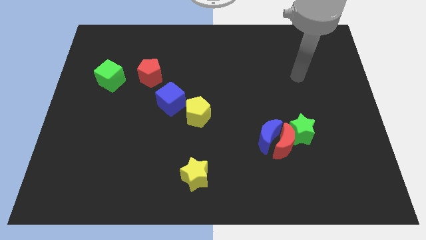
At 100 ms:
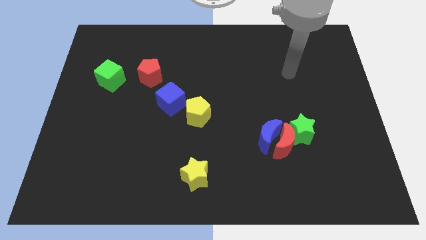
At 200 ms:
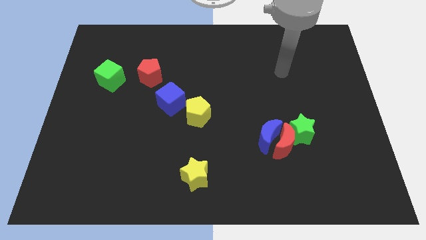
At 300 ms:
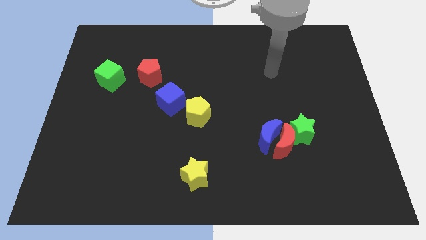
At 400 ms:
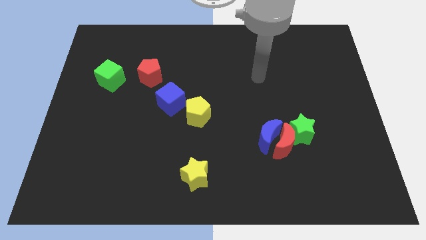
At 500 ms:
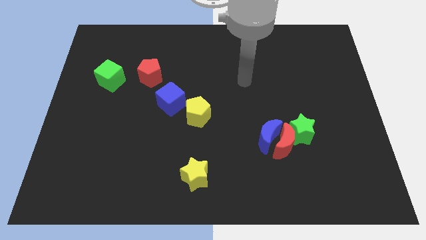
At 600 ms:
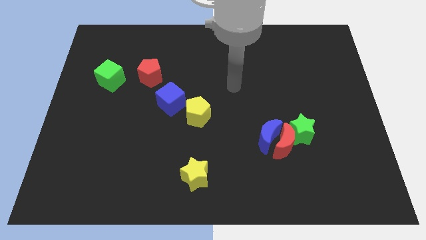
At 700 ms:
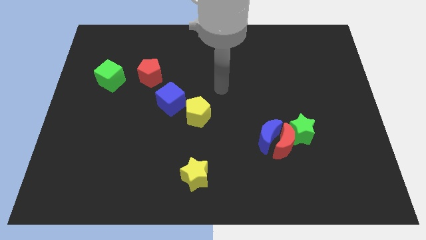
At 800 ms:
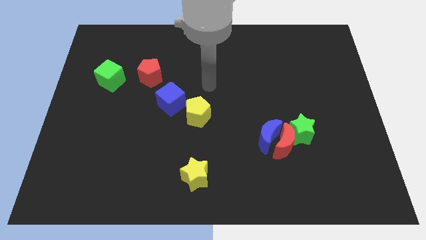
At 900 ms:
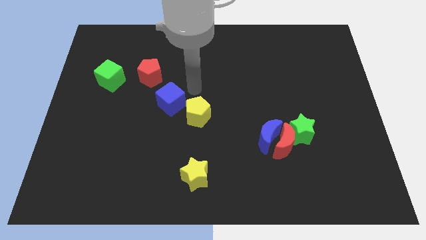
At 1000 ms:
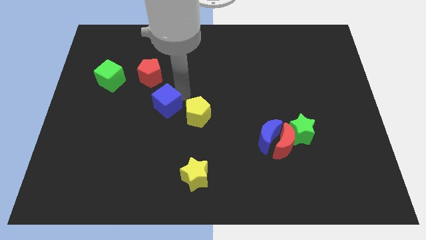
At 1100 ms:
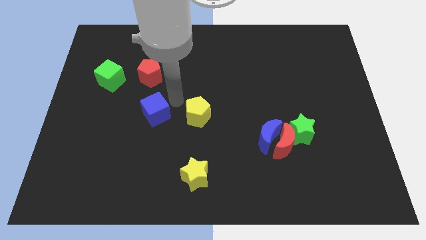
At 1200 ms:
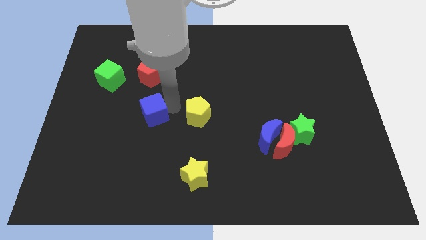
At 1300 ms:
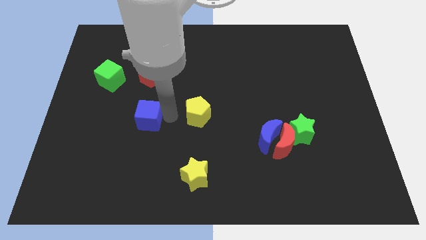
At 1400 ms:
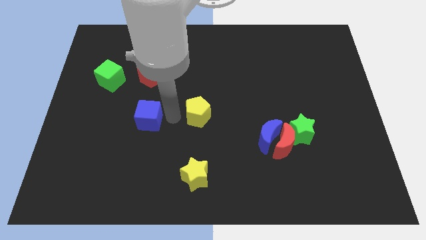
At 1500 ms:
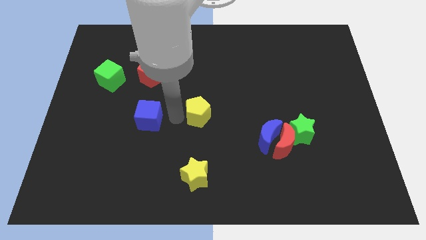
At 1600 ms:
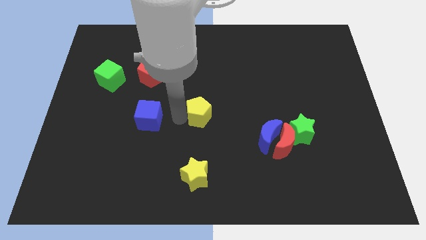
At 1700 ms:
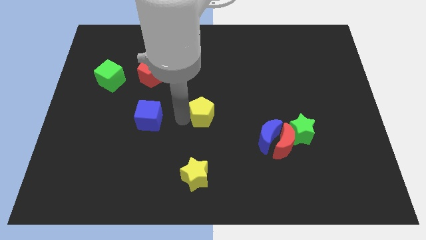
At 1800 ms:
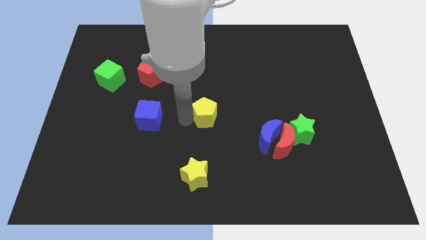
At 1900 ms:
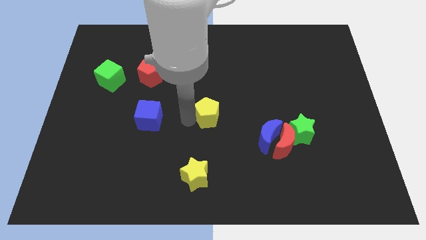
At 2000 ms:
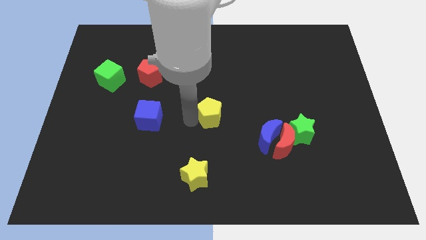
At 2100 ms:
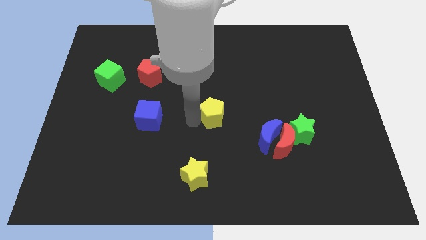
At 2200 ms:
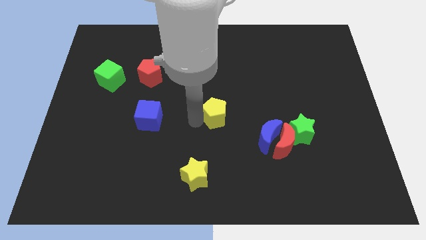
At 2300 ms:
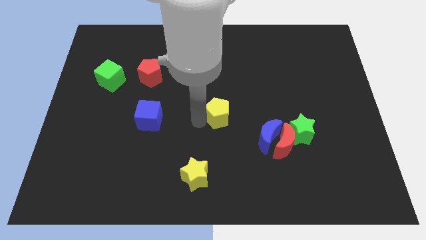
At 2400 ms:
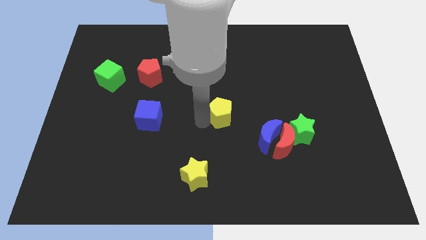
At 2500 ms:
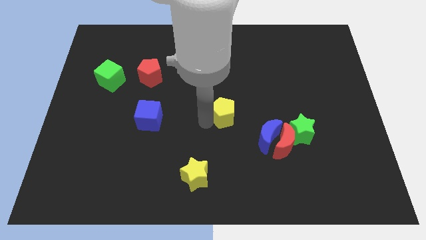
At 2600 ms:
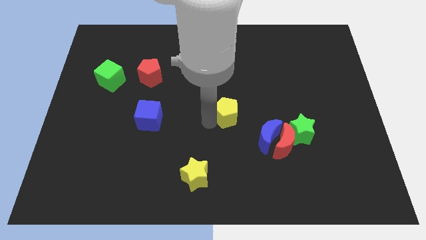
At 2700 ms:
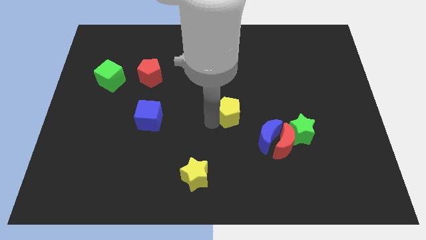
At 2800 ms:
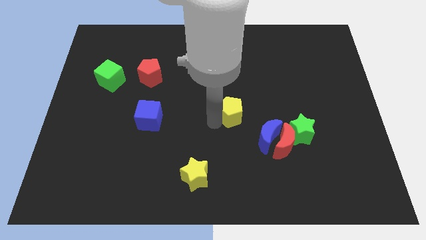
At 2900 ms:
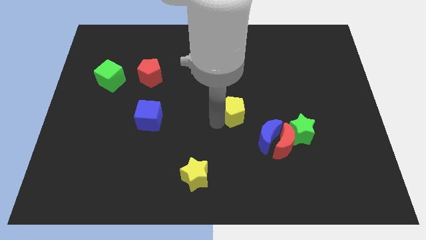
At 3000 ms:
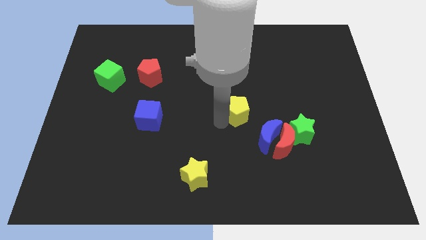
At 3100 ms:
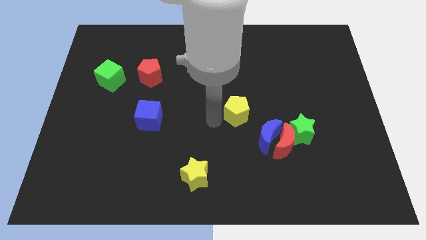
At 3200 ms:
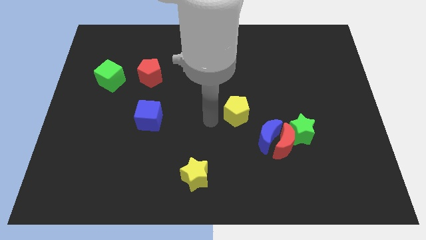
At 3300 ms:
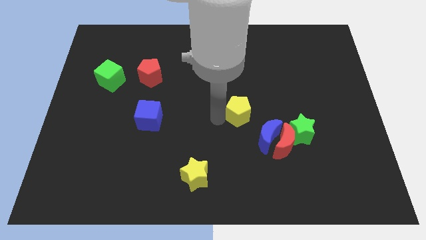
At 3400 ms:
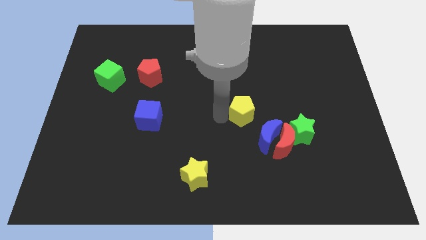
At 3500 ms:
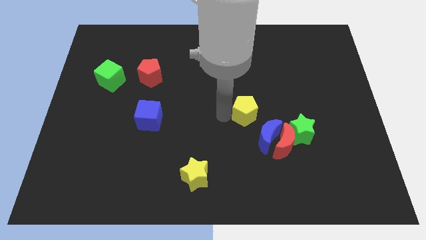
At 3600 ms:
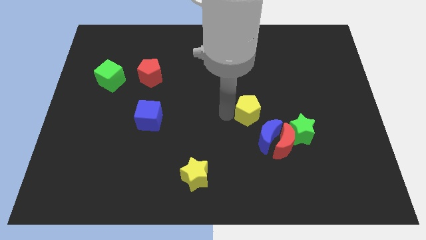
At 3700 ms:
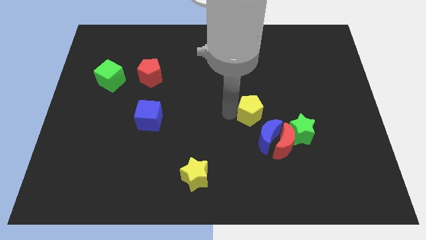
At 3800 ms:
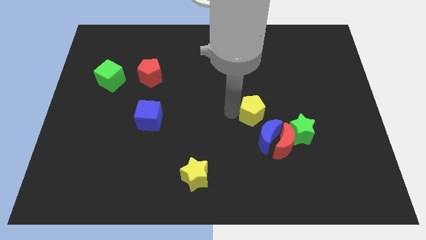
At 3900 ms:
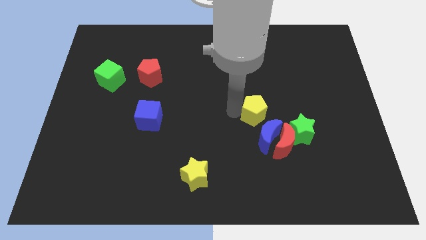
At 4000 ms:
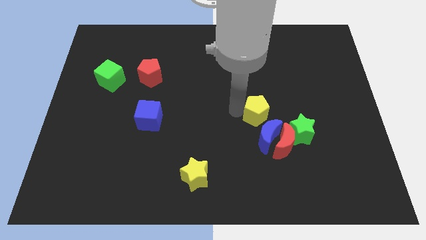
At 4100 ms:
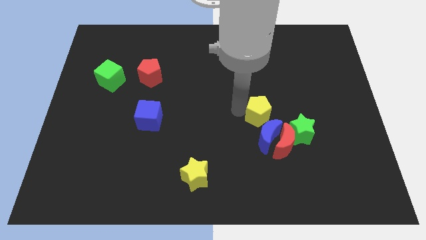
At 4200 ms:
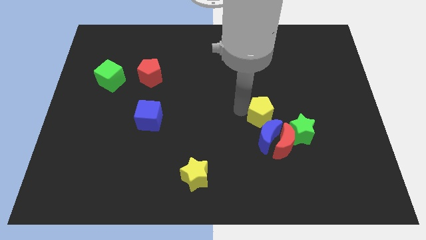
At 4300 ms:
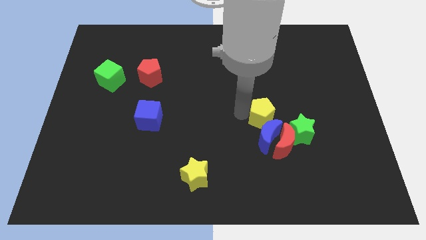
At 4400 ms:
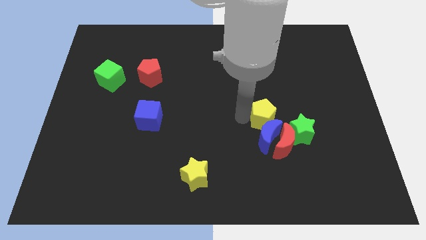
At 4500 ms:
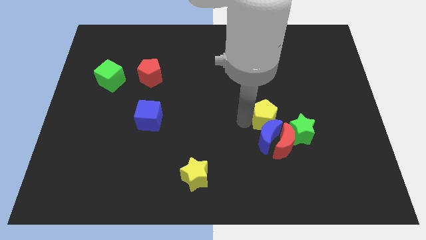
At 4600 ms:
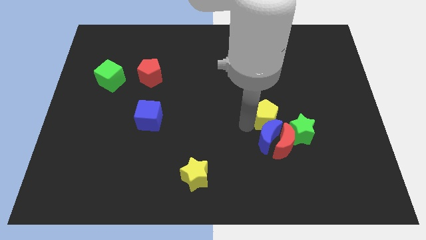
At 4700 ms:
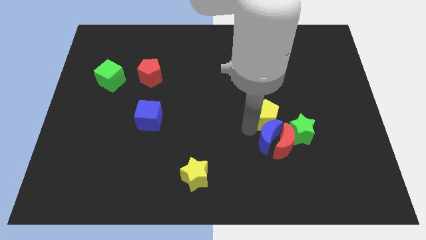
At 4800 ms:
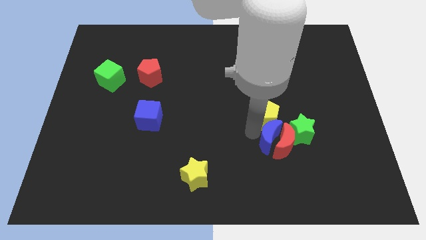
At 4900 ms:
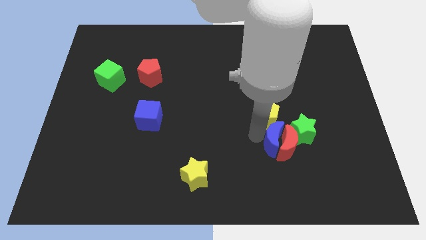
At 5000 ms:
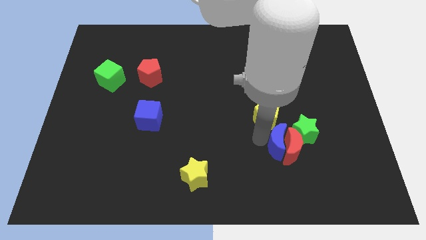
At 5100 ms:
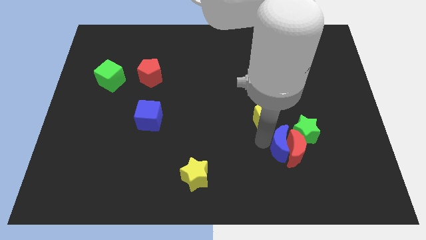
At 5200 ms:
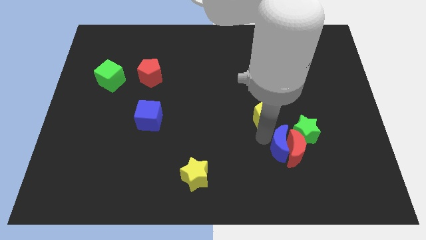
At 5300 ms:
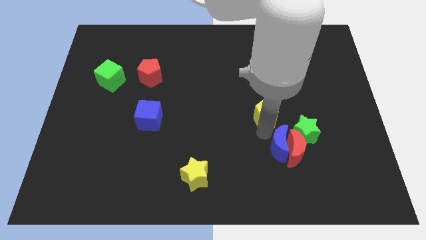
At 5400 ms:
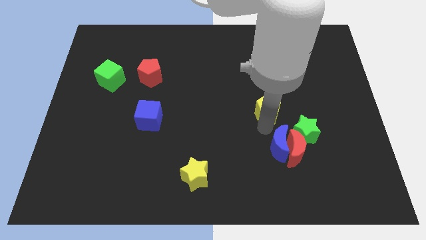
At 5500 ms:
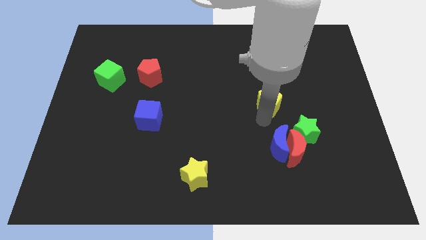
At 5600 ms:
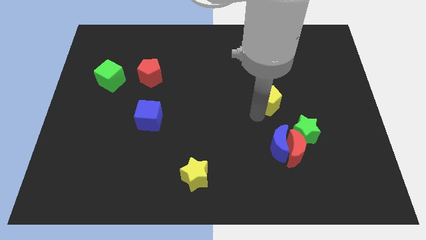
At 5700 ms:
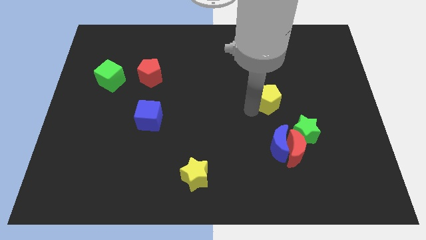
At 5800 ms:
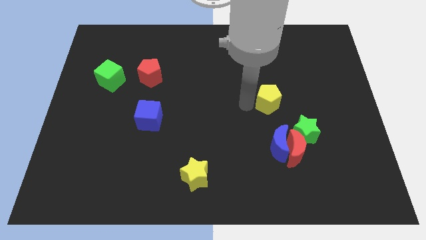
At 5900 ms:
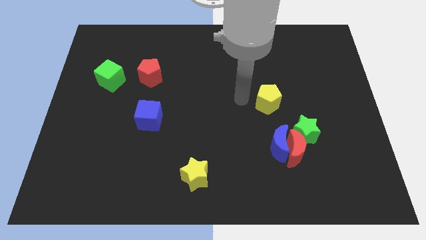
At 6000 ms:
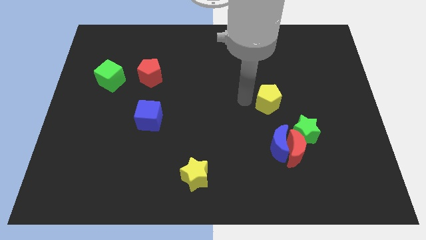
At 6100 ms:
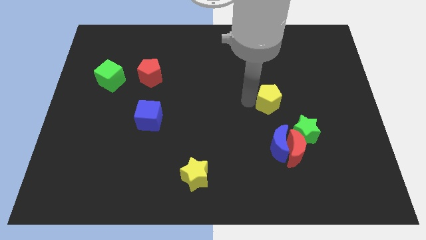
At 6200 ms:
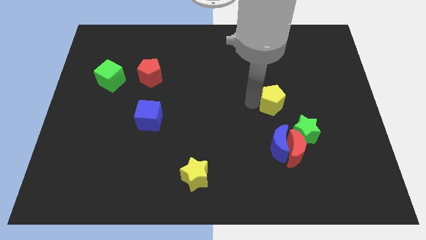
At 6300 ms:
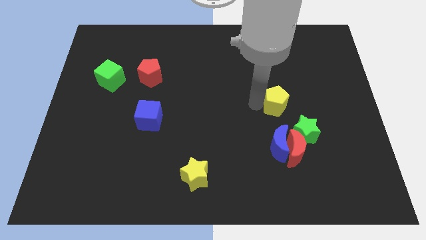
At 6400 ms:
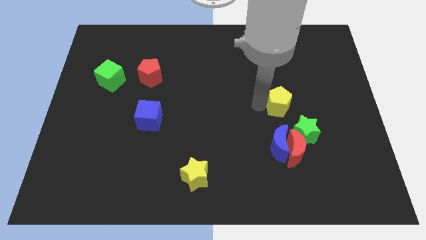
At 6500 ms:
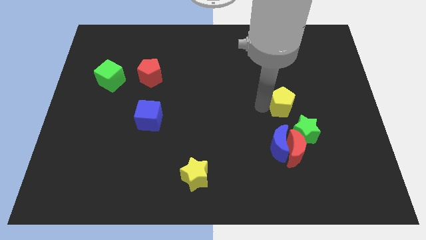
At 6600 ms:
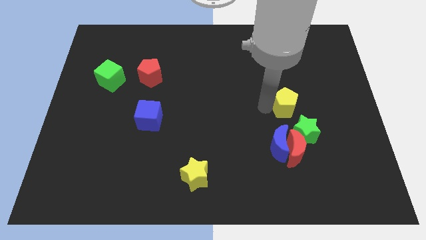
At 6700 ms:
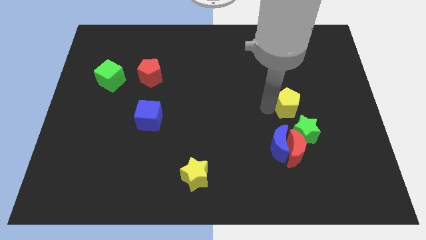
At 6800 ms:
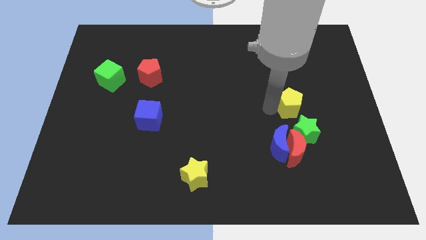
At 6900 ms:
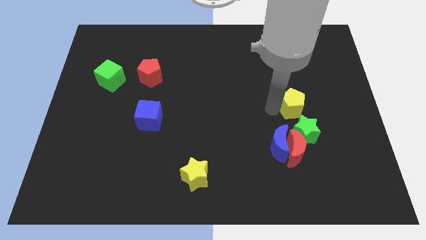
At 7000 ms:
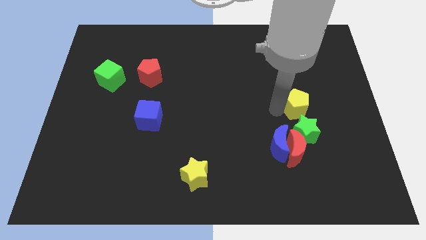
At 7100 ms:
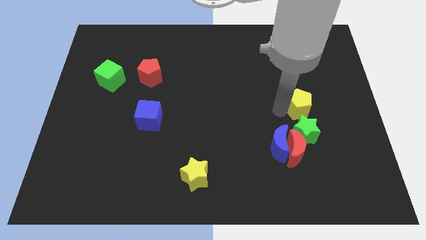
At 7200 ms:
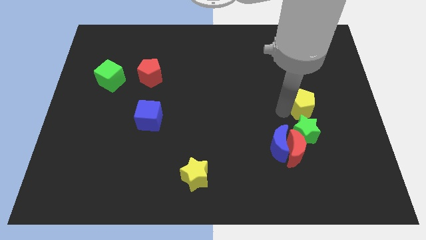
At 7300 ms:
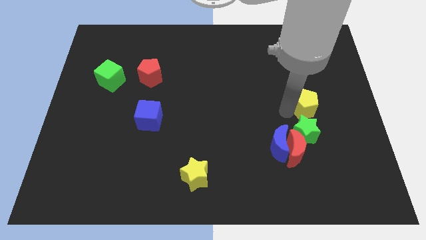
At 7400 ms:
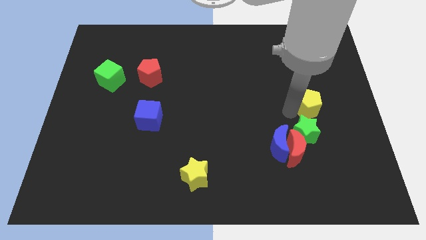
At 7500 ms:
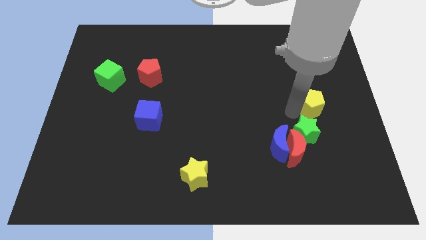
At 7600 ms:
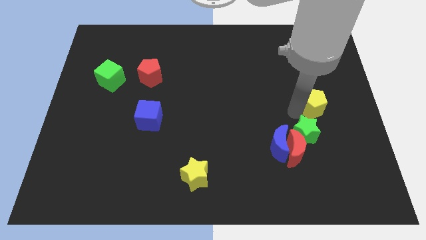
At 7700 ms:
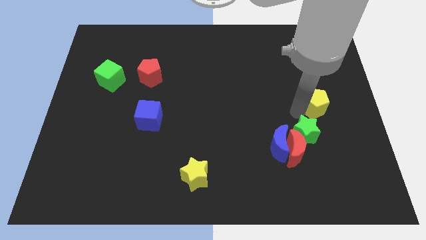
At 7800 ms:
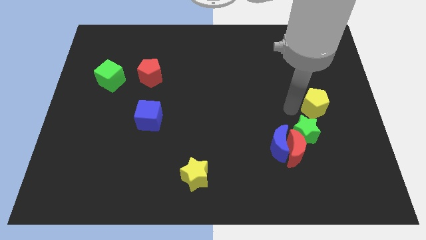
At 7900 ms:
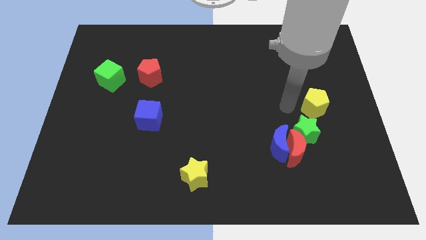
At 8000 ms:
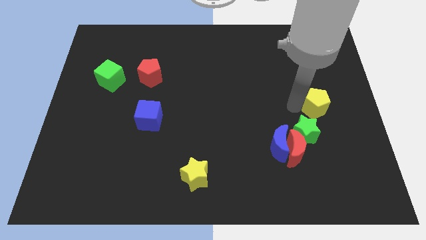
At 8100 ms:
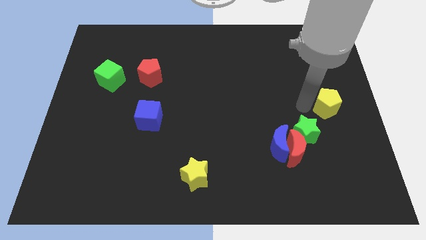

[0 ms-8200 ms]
push the yellow pentagon to the right side of the board
